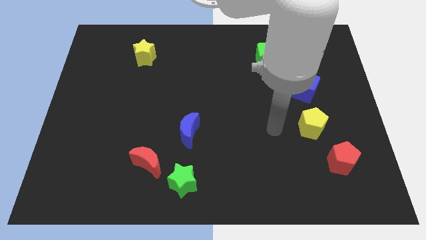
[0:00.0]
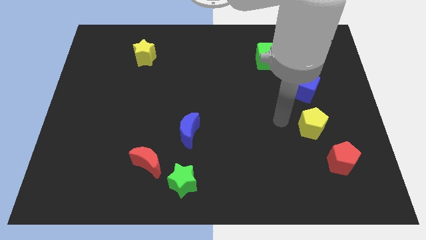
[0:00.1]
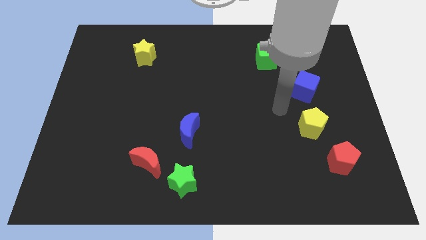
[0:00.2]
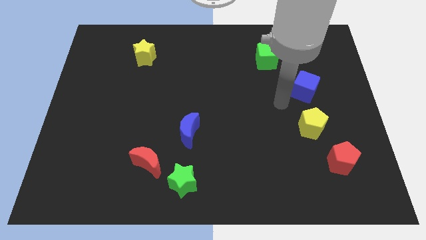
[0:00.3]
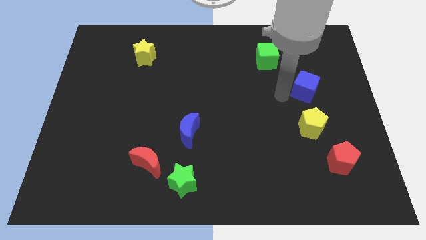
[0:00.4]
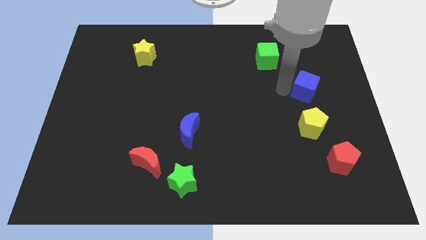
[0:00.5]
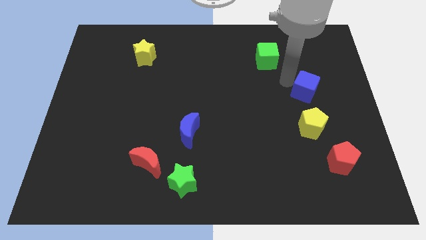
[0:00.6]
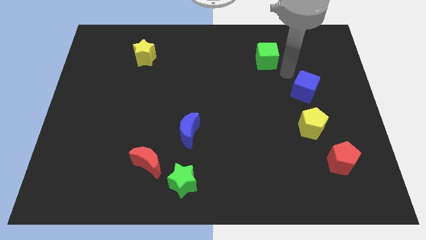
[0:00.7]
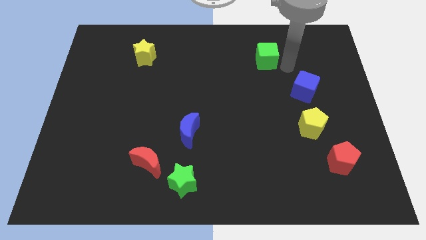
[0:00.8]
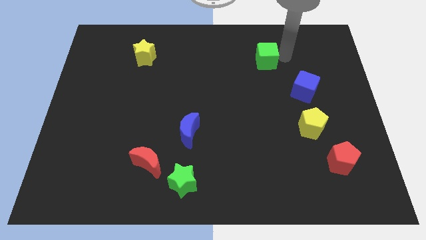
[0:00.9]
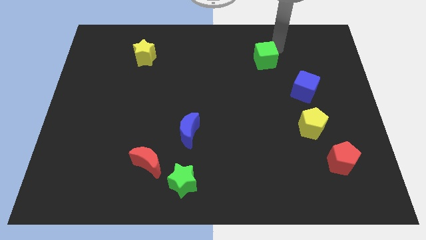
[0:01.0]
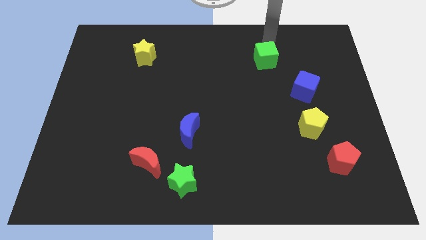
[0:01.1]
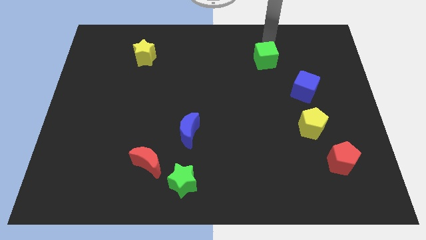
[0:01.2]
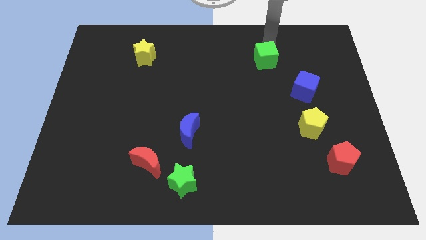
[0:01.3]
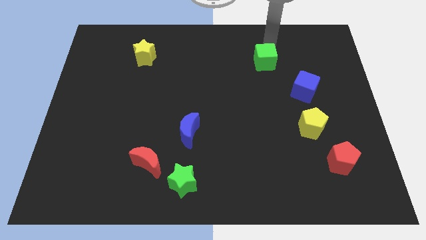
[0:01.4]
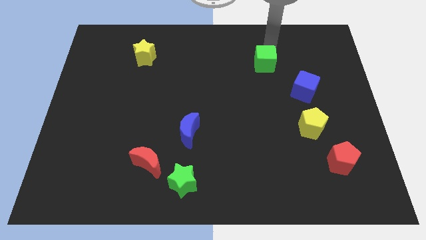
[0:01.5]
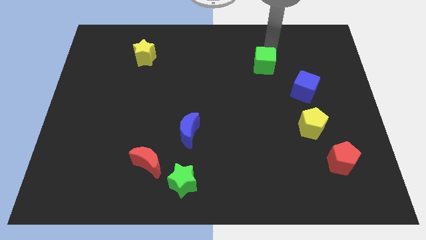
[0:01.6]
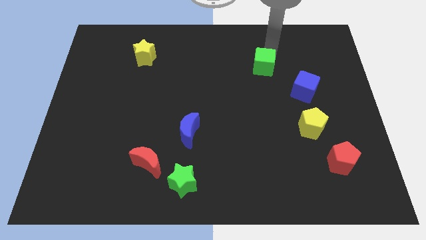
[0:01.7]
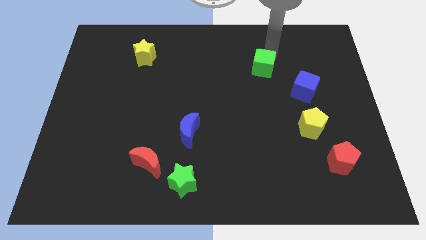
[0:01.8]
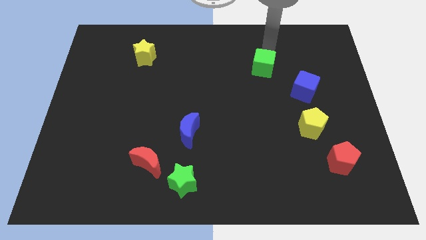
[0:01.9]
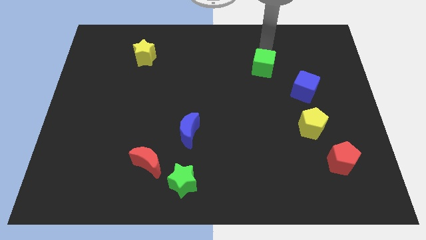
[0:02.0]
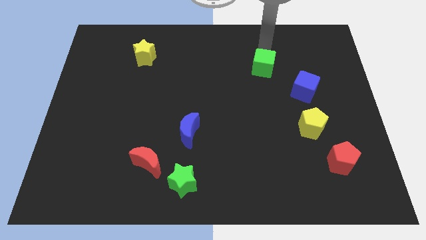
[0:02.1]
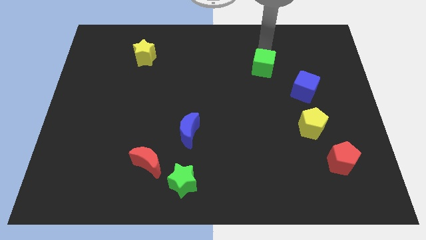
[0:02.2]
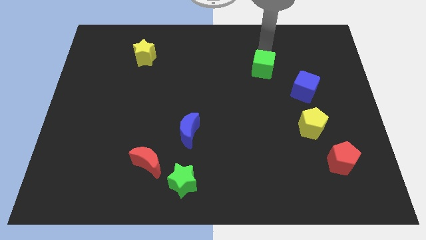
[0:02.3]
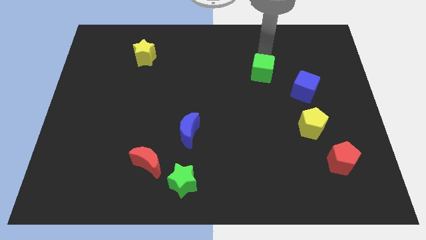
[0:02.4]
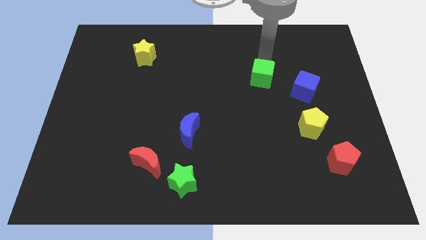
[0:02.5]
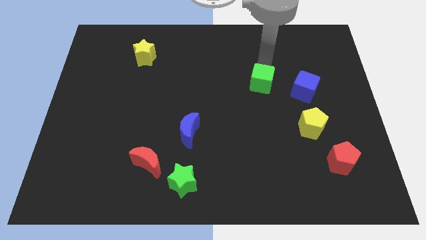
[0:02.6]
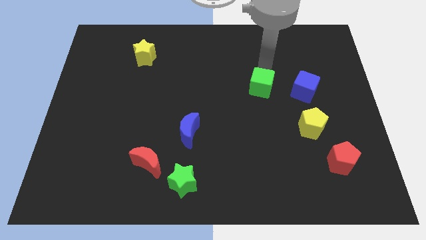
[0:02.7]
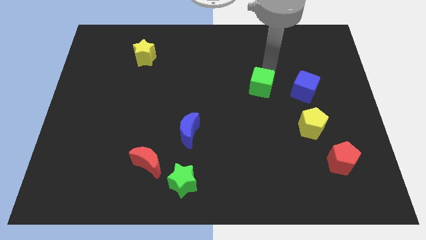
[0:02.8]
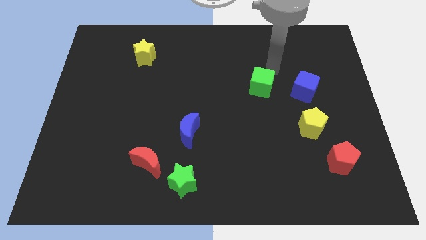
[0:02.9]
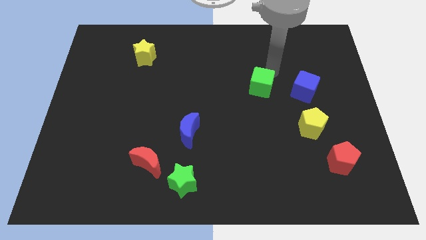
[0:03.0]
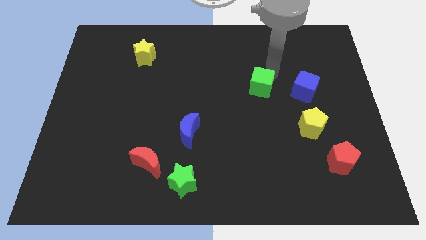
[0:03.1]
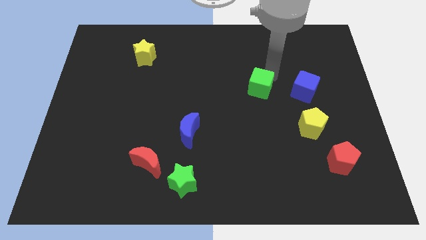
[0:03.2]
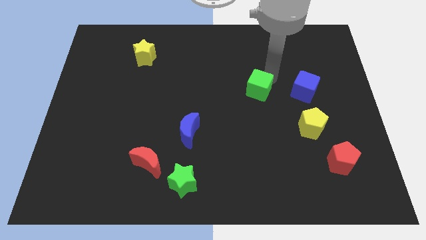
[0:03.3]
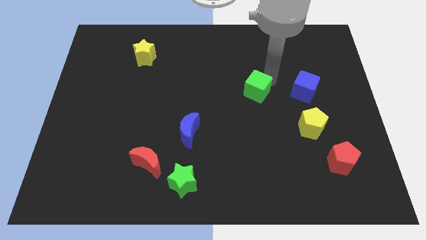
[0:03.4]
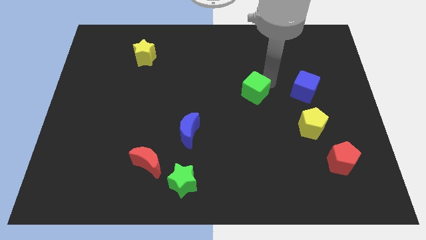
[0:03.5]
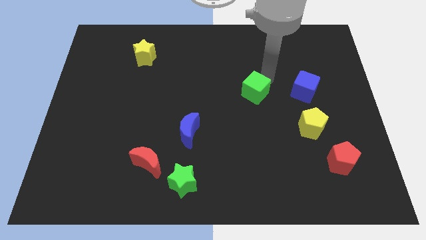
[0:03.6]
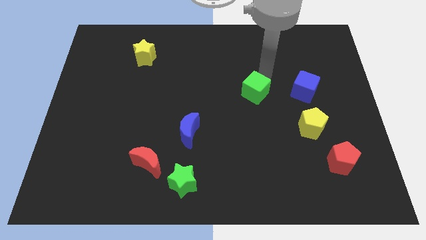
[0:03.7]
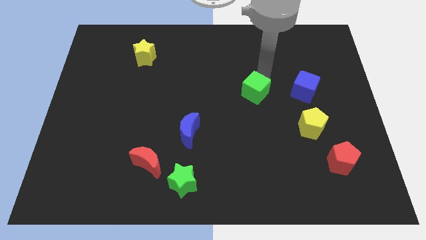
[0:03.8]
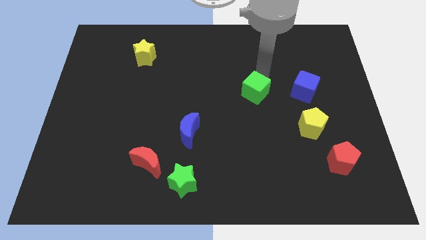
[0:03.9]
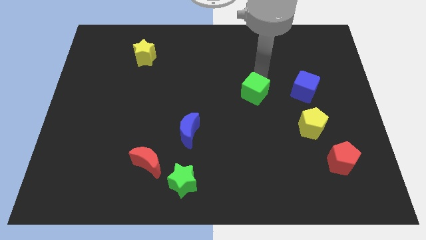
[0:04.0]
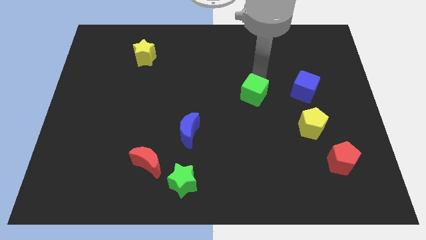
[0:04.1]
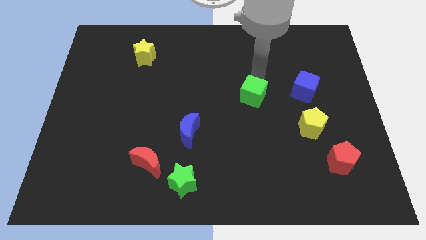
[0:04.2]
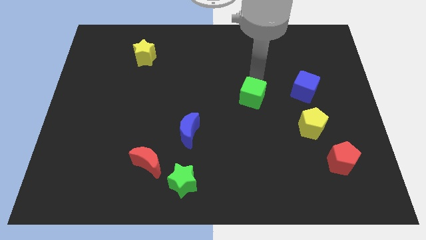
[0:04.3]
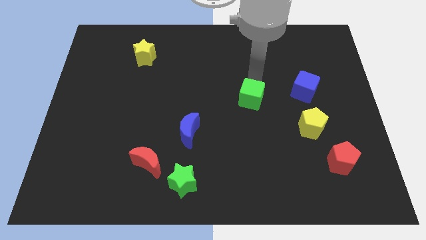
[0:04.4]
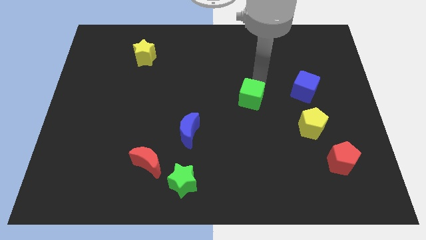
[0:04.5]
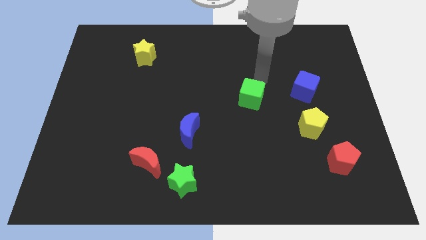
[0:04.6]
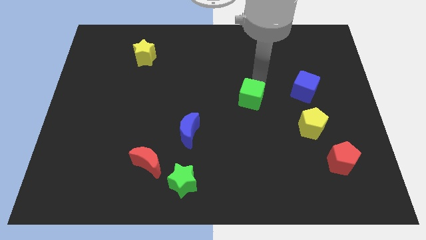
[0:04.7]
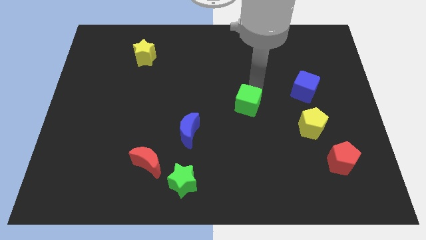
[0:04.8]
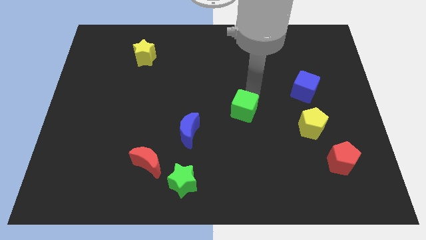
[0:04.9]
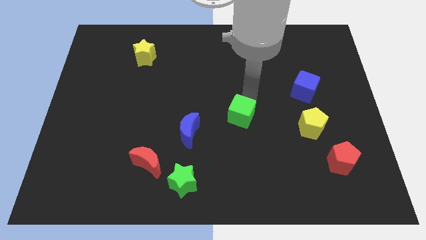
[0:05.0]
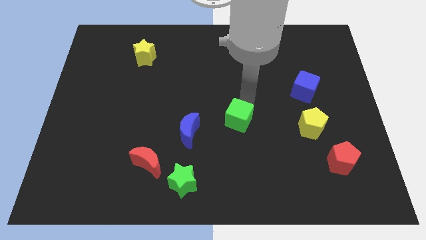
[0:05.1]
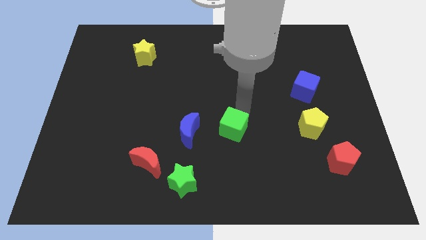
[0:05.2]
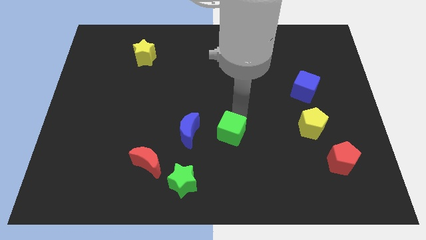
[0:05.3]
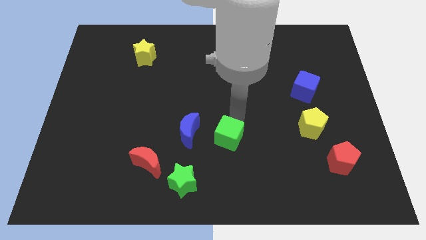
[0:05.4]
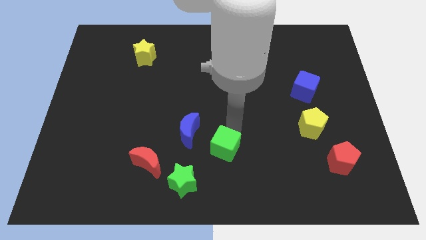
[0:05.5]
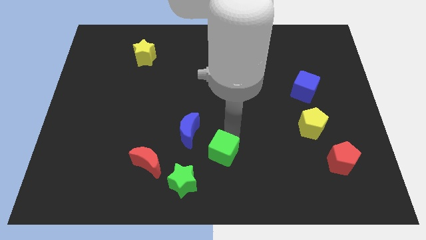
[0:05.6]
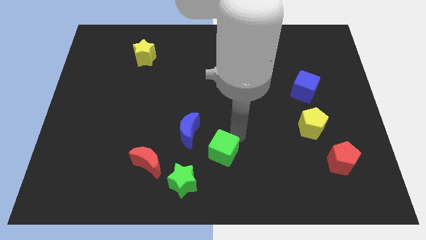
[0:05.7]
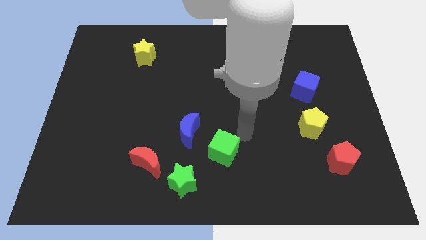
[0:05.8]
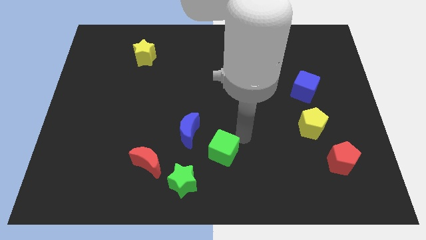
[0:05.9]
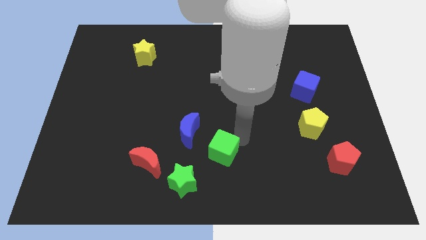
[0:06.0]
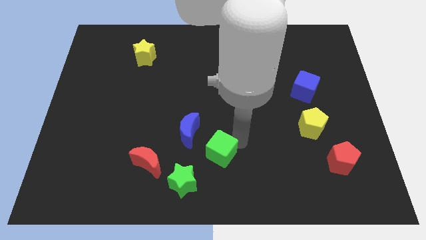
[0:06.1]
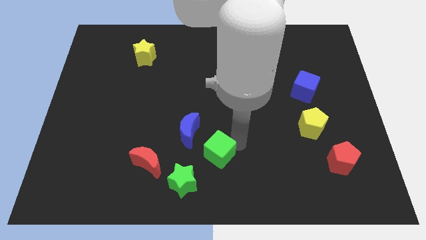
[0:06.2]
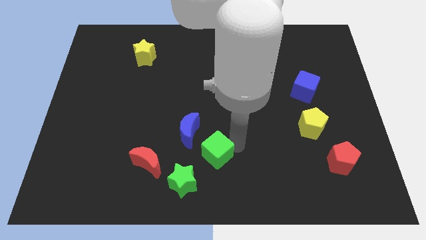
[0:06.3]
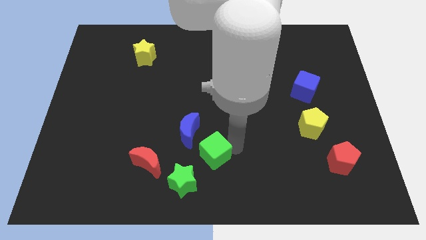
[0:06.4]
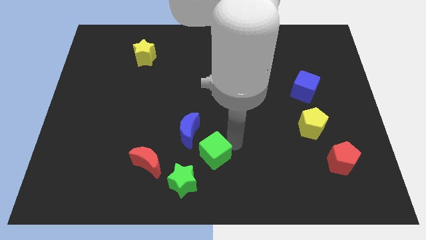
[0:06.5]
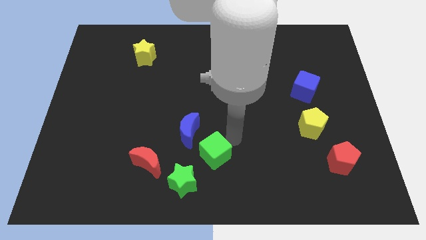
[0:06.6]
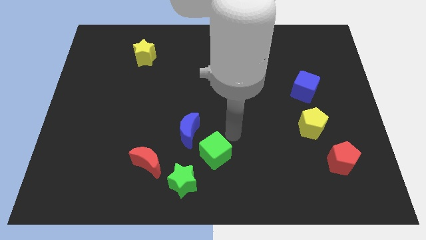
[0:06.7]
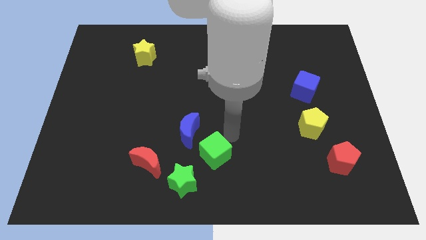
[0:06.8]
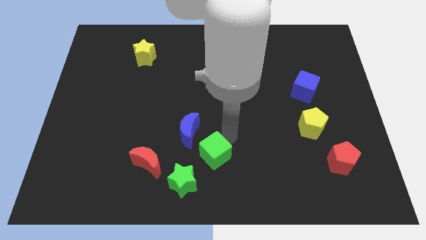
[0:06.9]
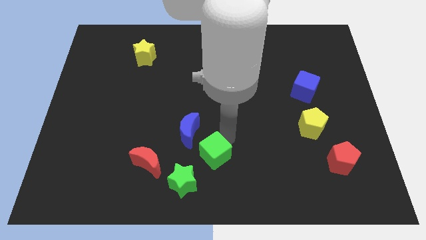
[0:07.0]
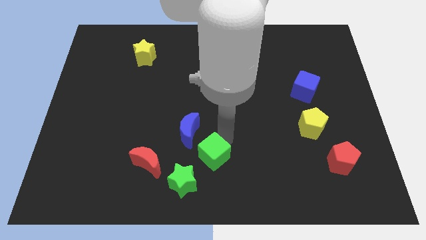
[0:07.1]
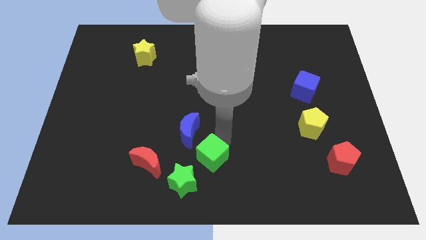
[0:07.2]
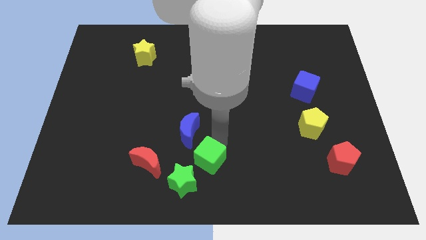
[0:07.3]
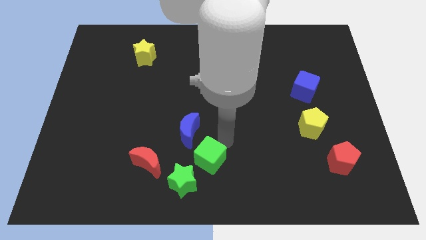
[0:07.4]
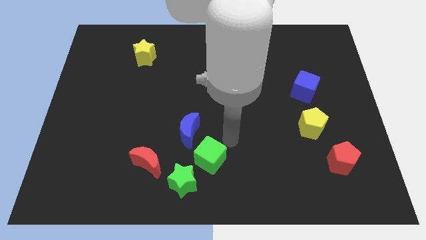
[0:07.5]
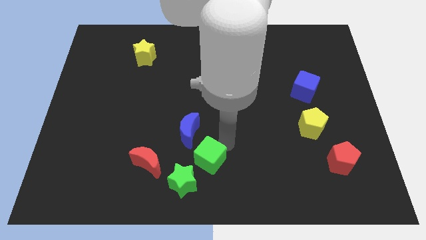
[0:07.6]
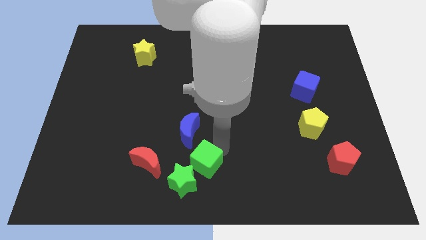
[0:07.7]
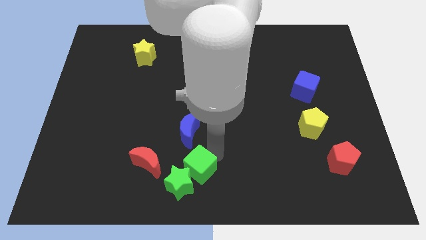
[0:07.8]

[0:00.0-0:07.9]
slide the green cube close to the green star
